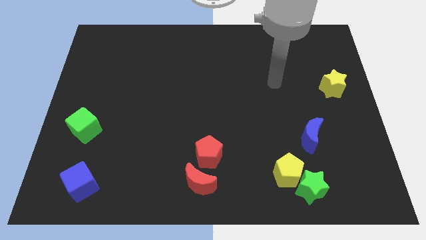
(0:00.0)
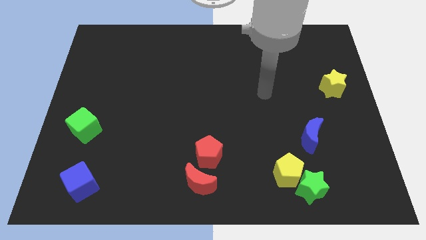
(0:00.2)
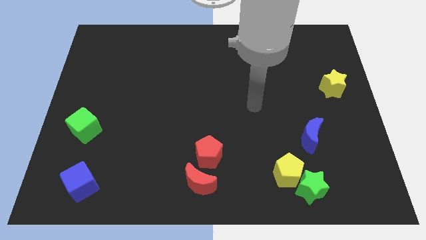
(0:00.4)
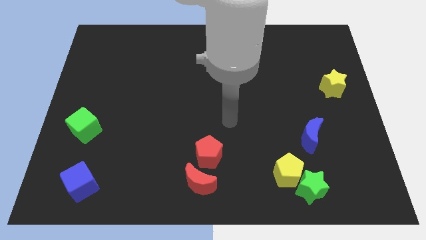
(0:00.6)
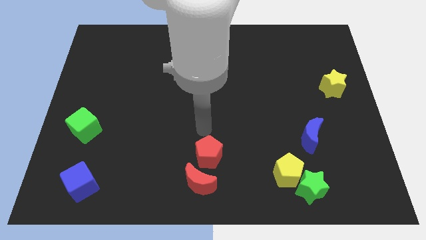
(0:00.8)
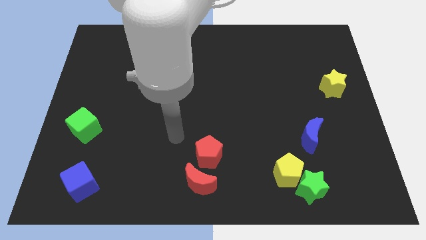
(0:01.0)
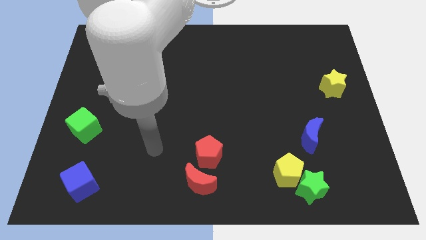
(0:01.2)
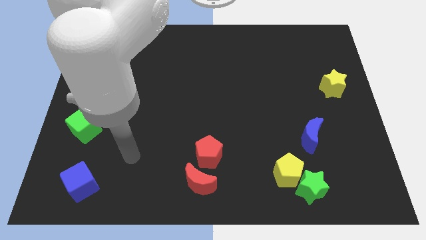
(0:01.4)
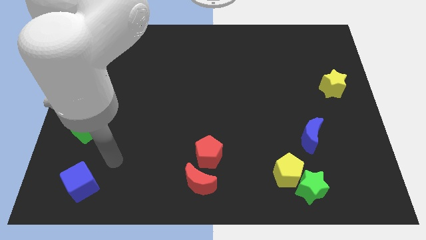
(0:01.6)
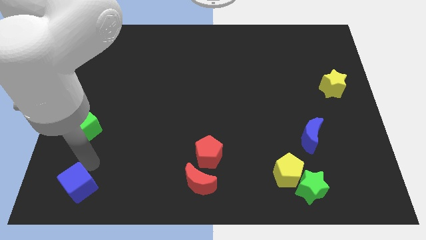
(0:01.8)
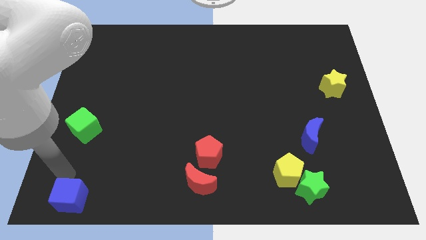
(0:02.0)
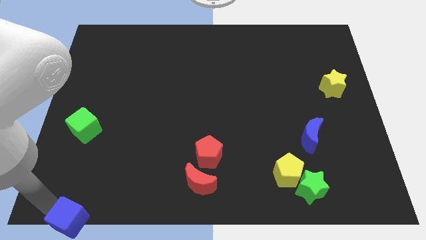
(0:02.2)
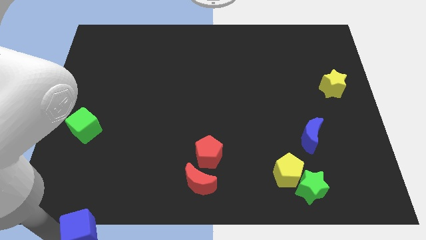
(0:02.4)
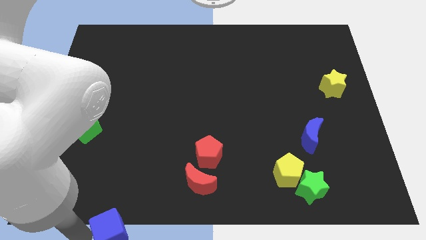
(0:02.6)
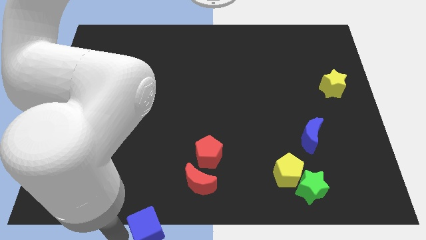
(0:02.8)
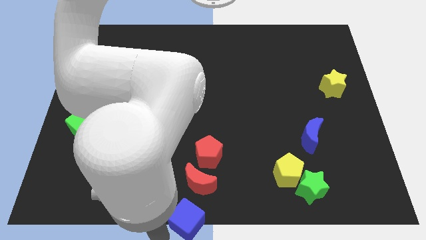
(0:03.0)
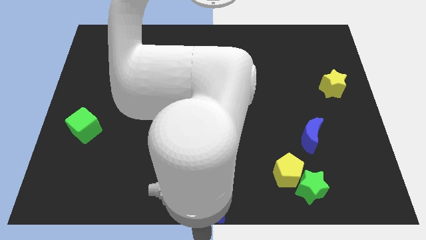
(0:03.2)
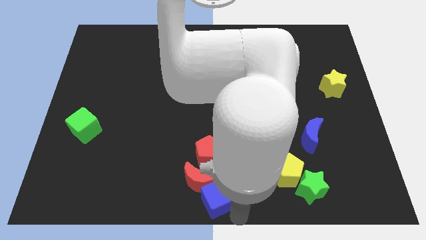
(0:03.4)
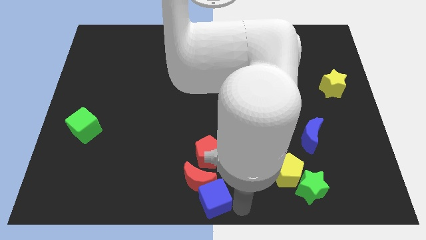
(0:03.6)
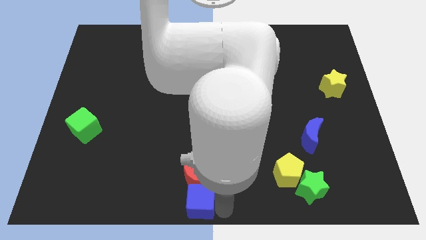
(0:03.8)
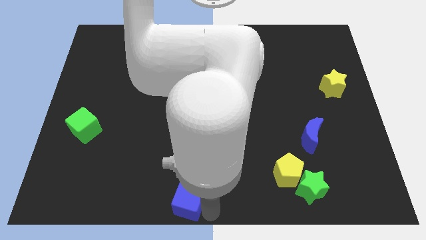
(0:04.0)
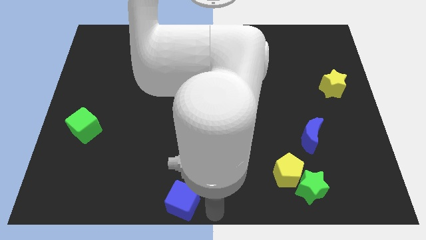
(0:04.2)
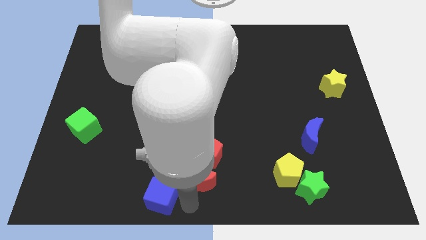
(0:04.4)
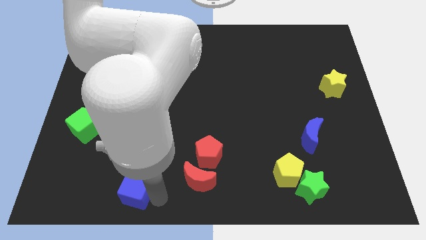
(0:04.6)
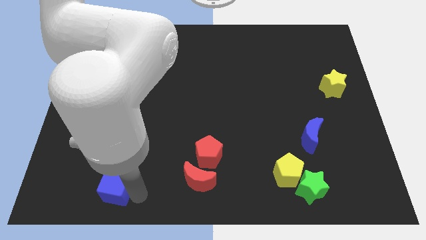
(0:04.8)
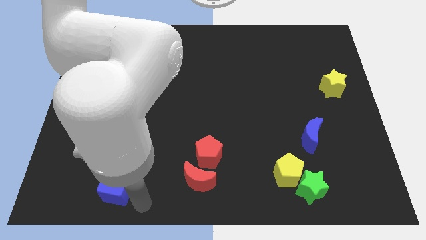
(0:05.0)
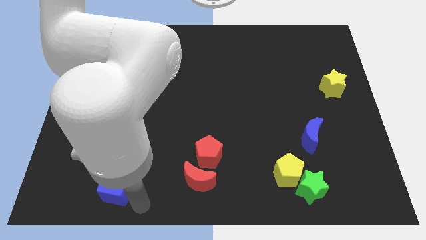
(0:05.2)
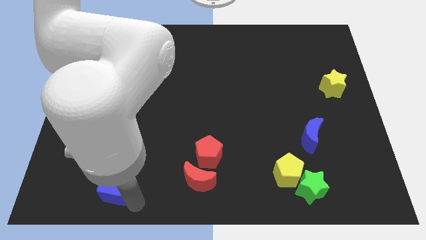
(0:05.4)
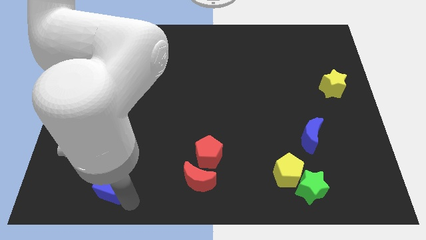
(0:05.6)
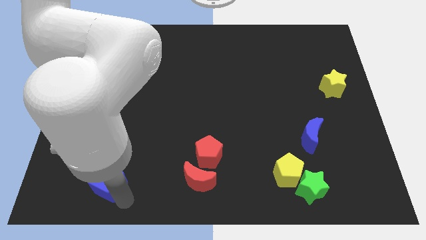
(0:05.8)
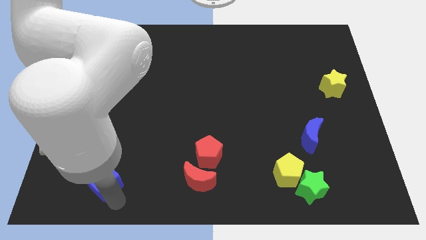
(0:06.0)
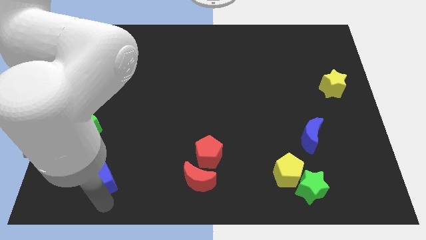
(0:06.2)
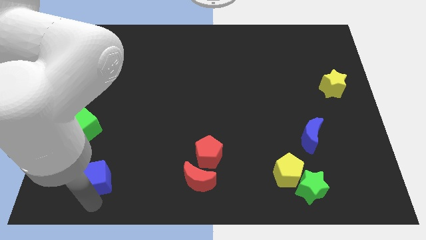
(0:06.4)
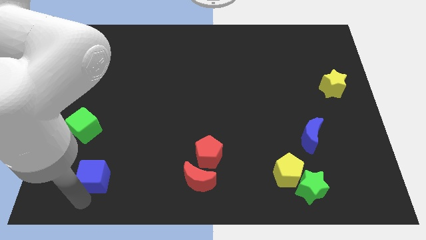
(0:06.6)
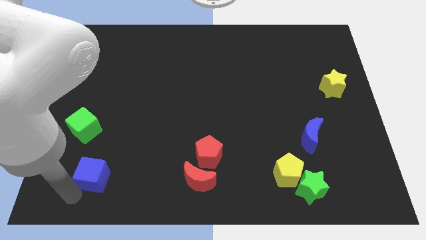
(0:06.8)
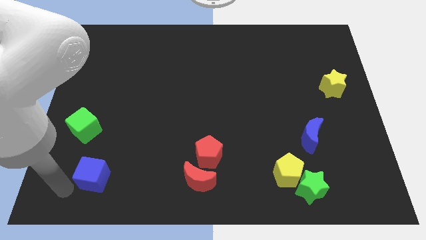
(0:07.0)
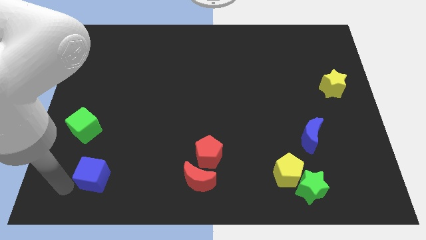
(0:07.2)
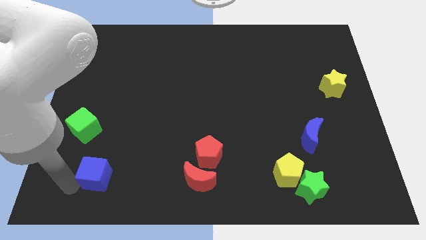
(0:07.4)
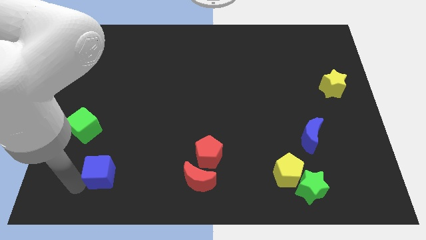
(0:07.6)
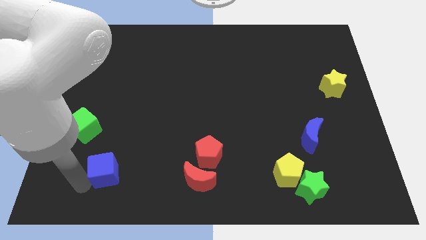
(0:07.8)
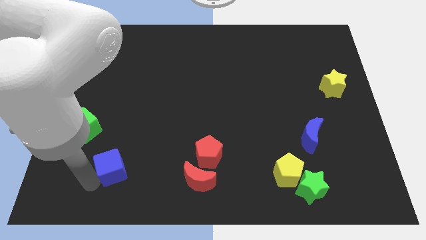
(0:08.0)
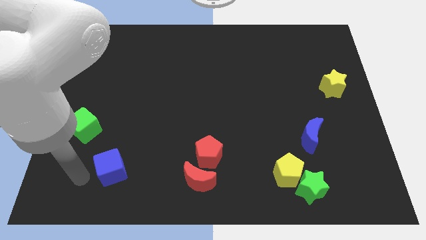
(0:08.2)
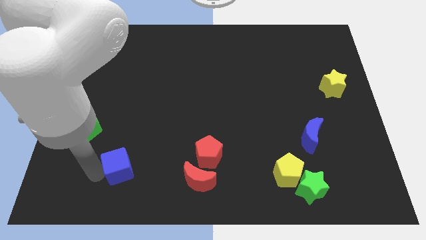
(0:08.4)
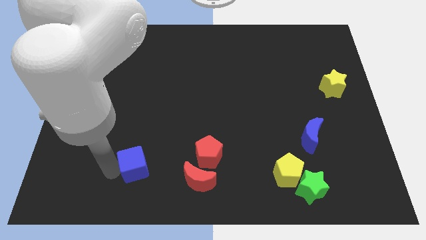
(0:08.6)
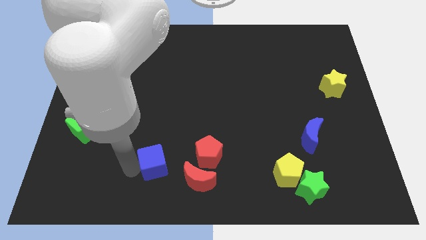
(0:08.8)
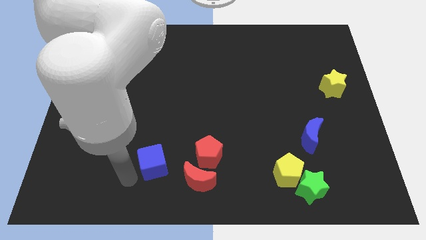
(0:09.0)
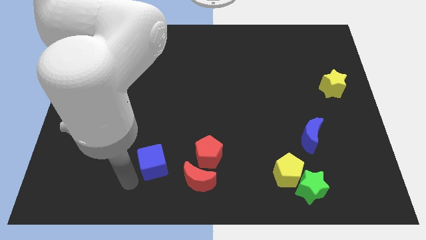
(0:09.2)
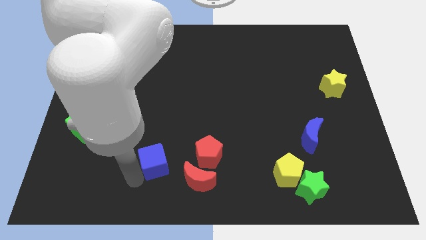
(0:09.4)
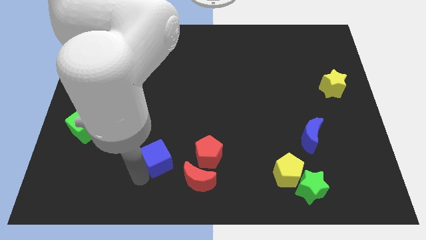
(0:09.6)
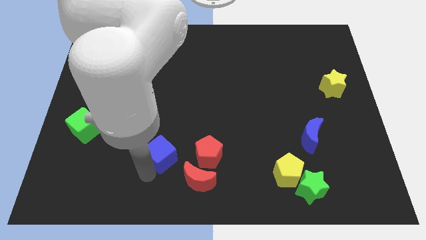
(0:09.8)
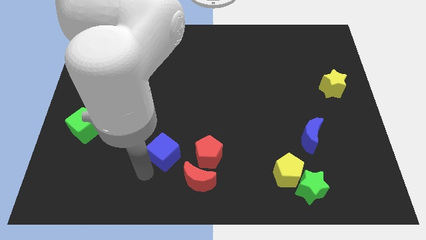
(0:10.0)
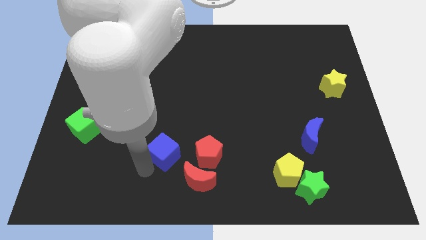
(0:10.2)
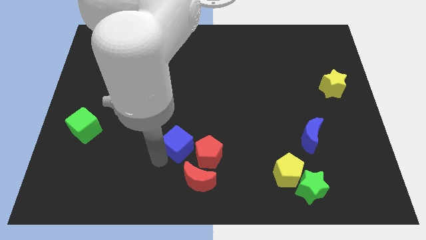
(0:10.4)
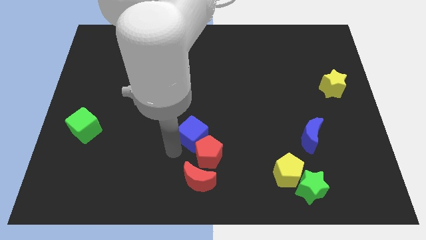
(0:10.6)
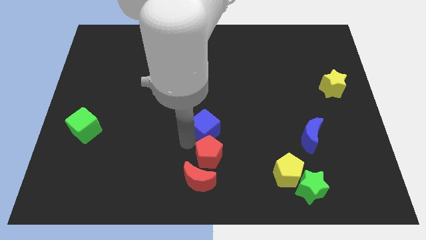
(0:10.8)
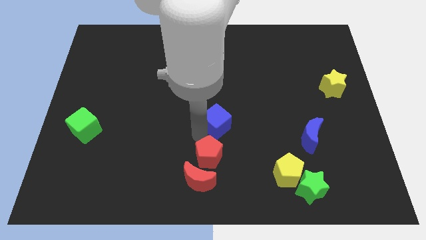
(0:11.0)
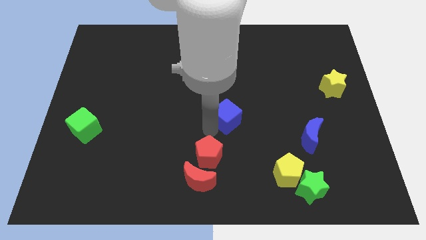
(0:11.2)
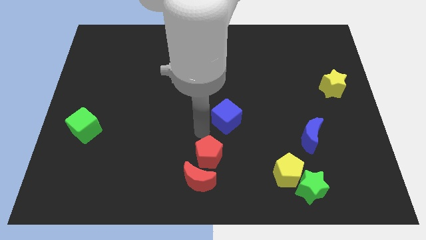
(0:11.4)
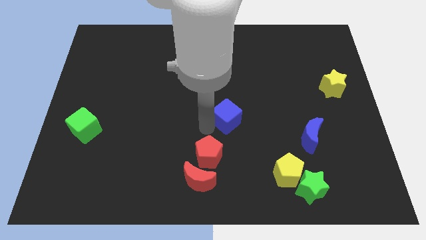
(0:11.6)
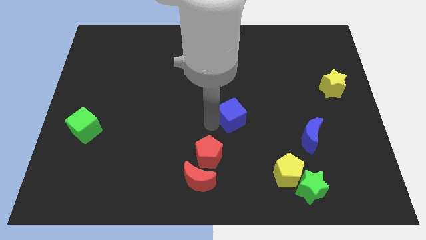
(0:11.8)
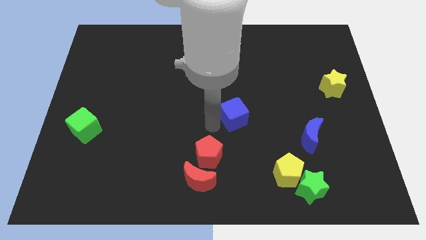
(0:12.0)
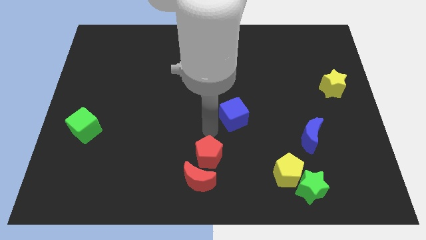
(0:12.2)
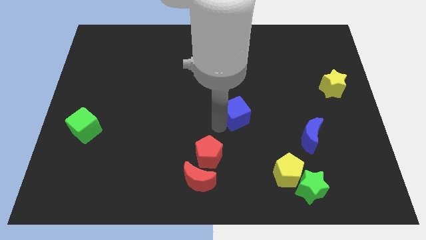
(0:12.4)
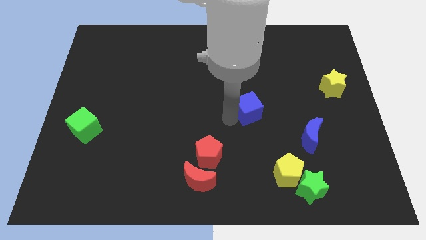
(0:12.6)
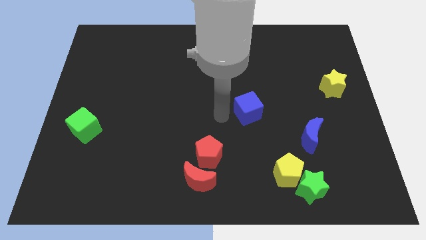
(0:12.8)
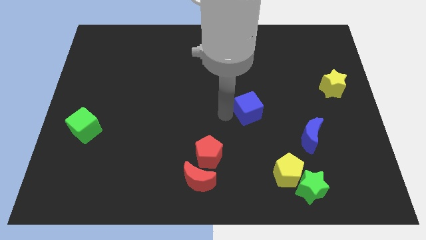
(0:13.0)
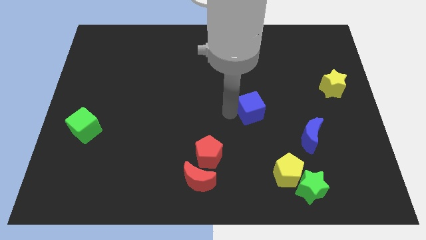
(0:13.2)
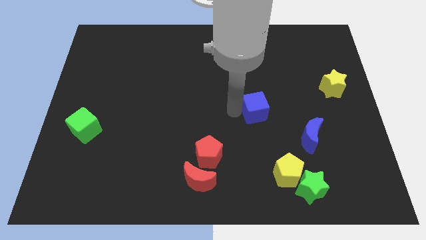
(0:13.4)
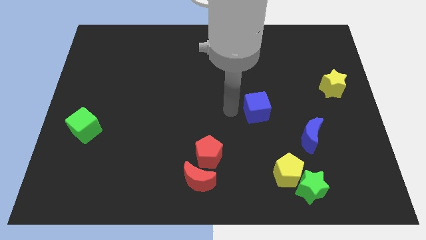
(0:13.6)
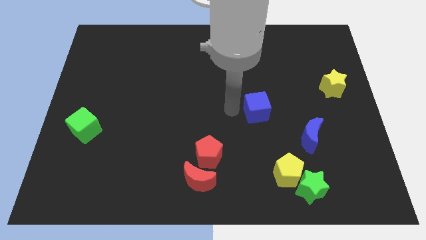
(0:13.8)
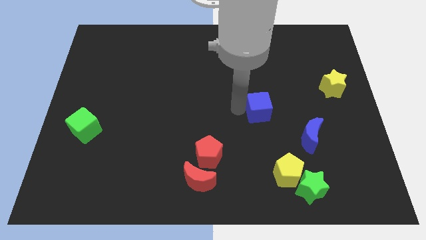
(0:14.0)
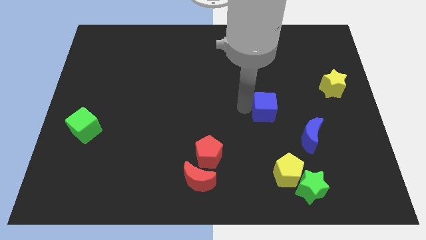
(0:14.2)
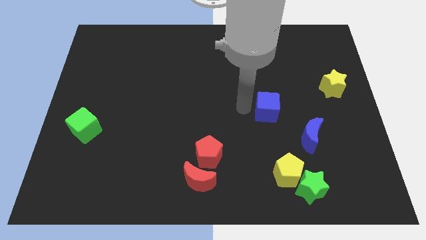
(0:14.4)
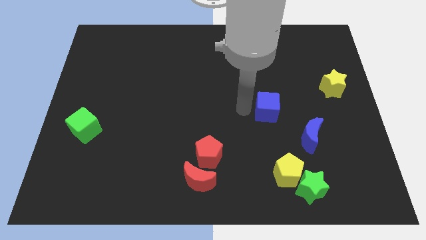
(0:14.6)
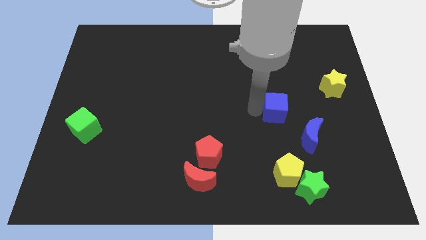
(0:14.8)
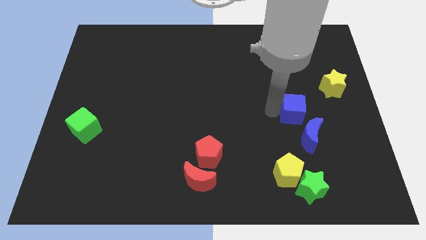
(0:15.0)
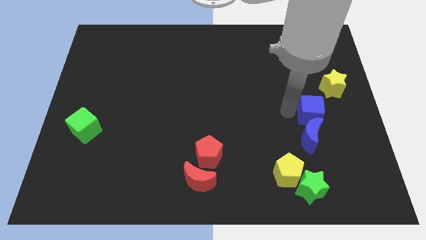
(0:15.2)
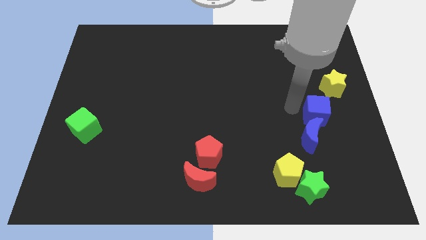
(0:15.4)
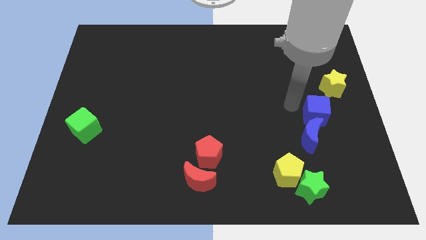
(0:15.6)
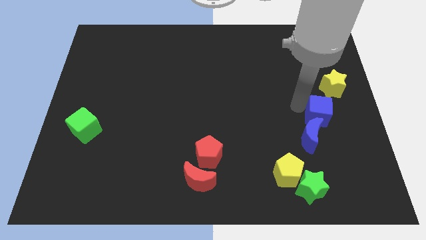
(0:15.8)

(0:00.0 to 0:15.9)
put the blue cube to the bottom side of the yellow star
